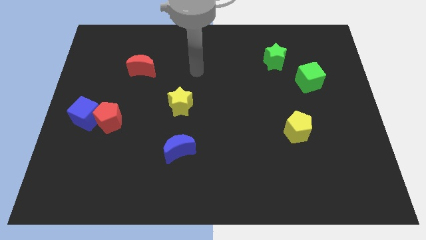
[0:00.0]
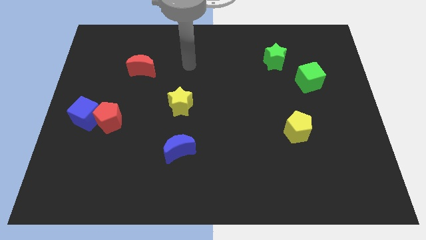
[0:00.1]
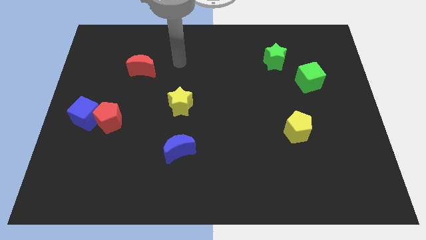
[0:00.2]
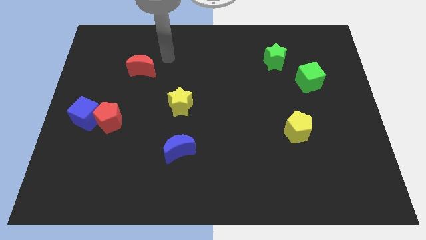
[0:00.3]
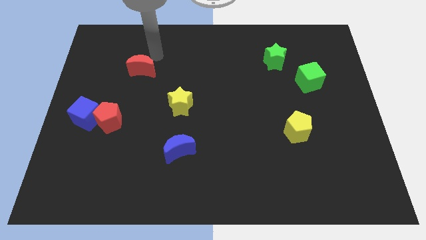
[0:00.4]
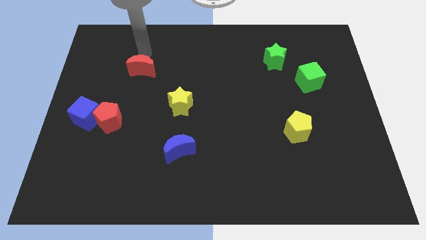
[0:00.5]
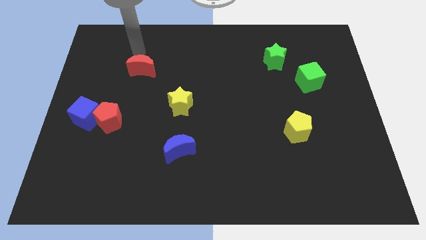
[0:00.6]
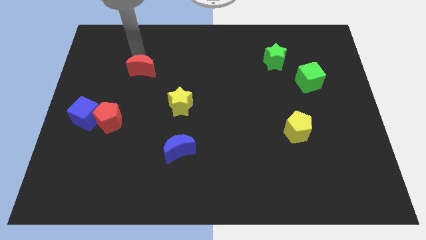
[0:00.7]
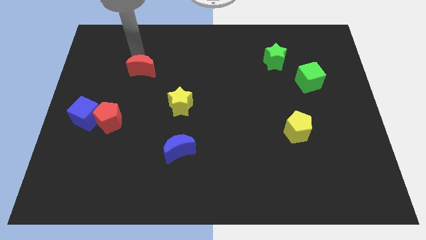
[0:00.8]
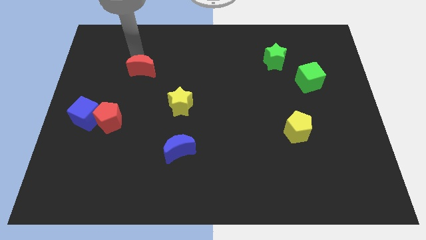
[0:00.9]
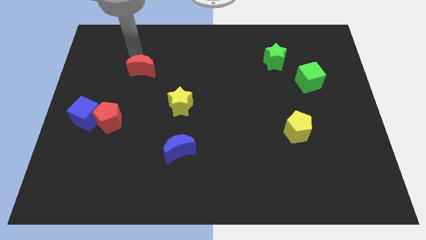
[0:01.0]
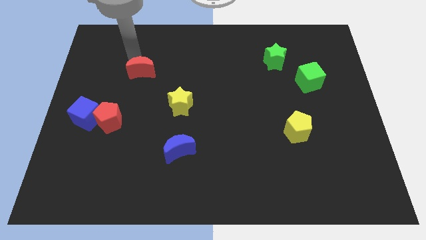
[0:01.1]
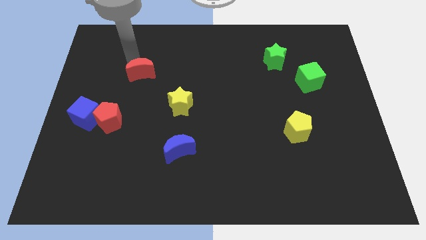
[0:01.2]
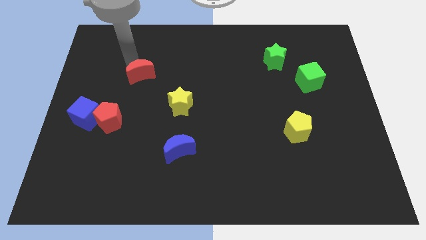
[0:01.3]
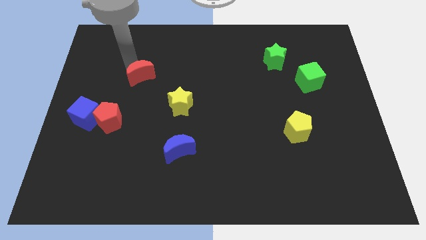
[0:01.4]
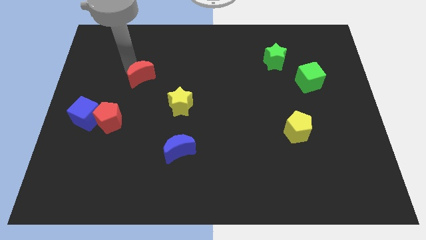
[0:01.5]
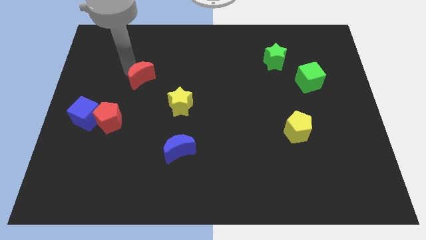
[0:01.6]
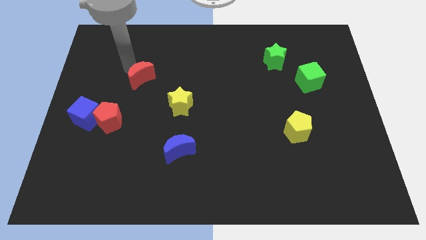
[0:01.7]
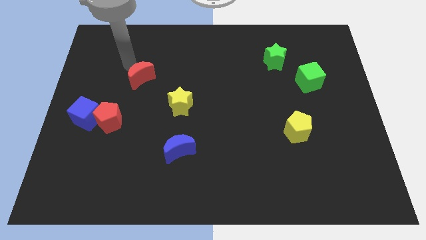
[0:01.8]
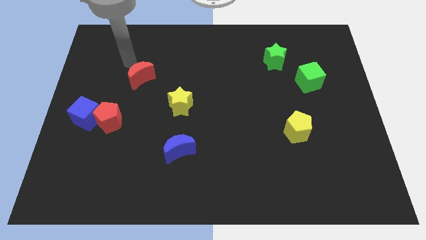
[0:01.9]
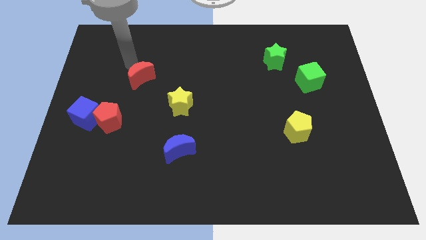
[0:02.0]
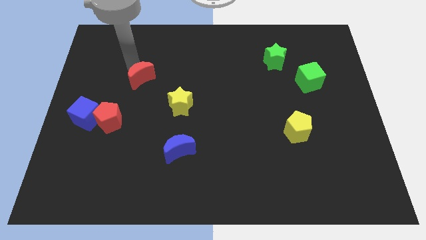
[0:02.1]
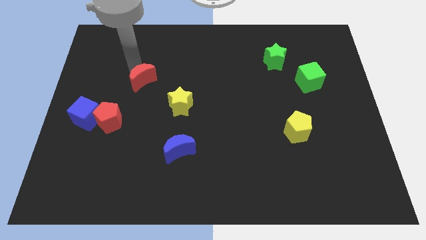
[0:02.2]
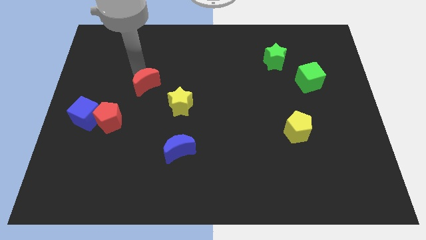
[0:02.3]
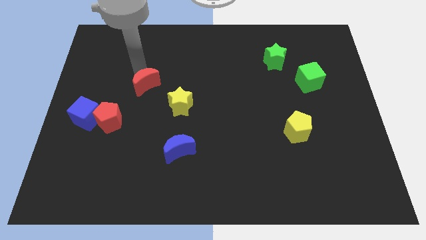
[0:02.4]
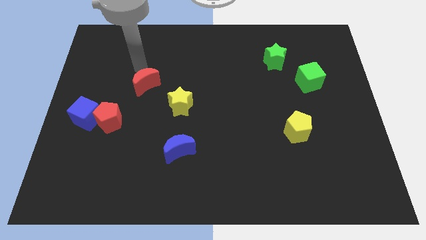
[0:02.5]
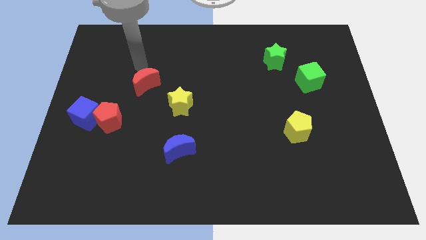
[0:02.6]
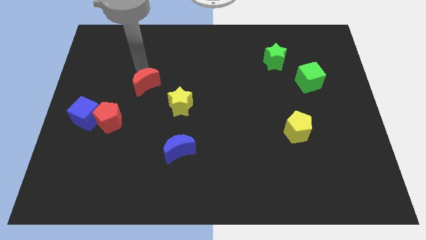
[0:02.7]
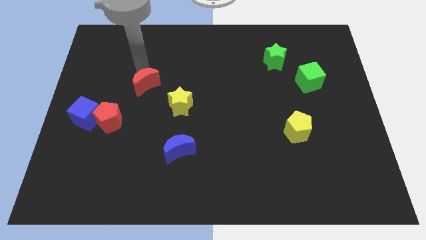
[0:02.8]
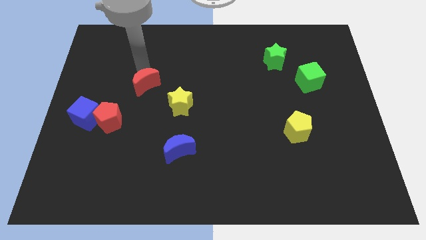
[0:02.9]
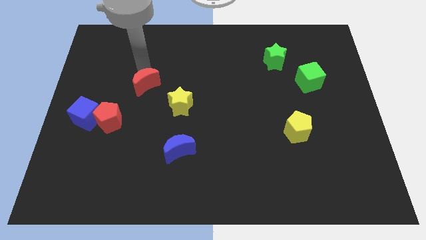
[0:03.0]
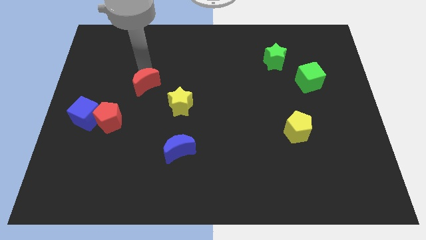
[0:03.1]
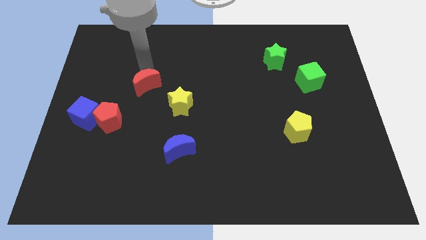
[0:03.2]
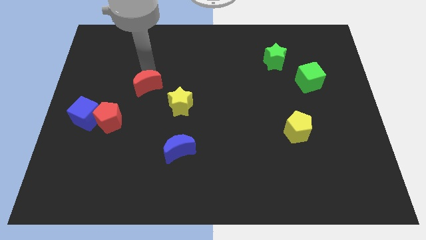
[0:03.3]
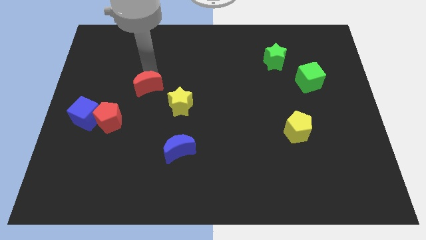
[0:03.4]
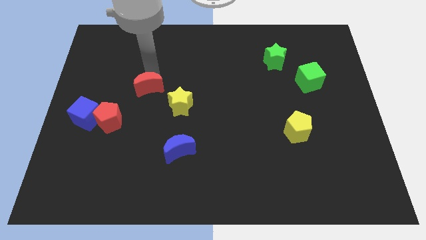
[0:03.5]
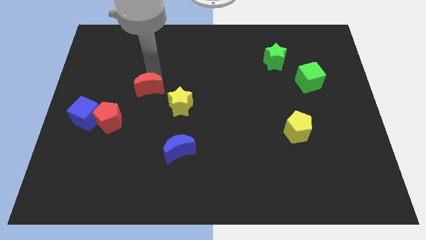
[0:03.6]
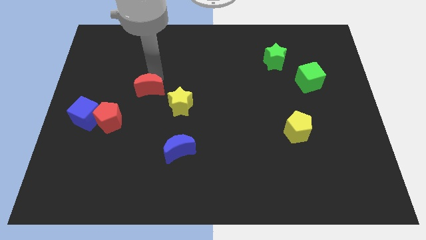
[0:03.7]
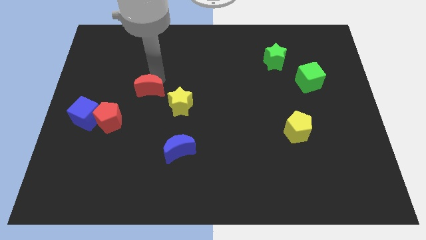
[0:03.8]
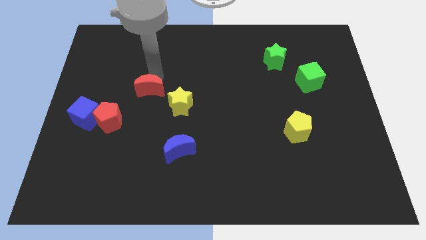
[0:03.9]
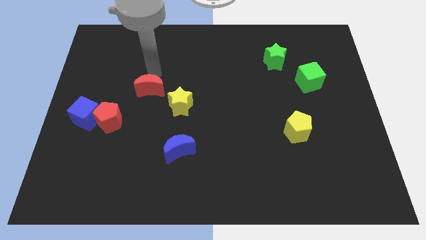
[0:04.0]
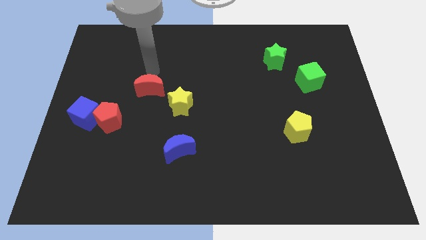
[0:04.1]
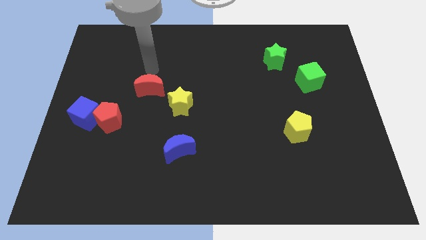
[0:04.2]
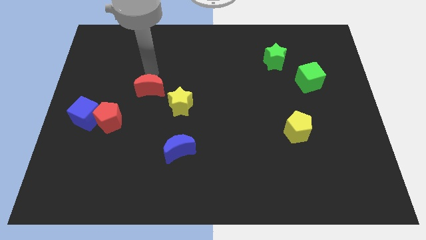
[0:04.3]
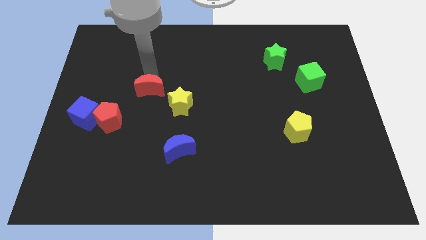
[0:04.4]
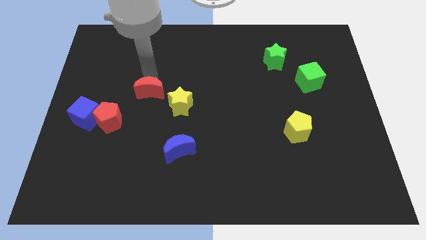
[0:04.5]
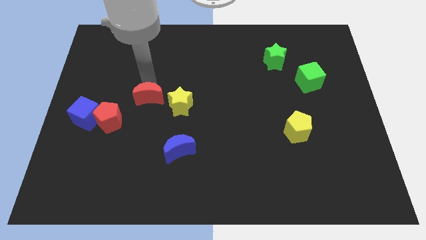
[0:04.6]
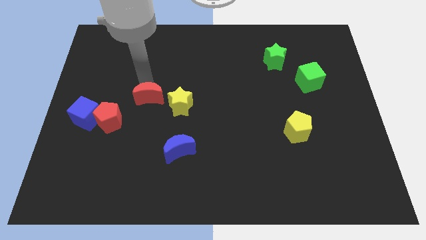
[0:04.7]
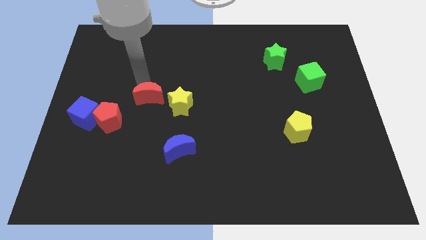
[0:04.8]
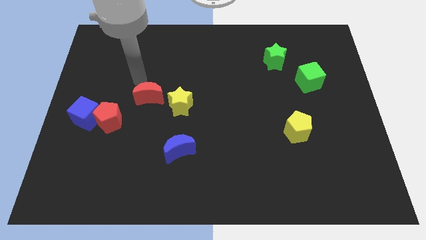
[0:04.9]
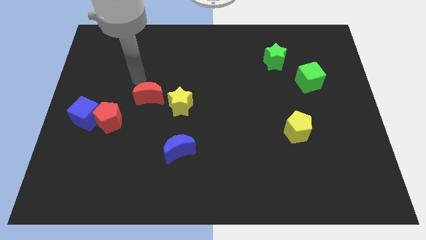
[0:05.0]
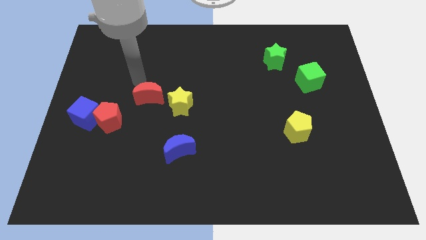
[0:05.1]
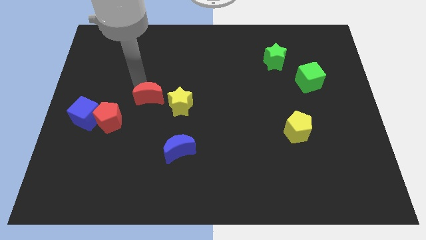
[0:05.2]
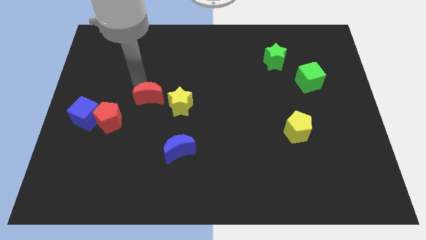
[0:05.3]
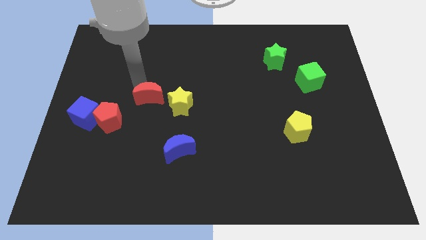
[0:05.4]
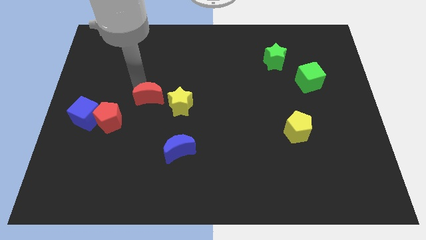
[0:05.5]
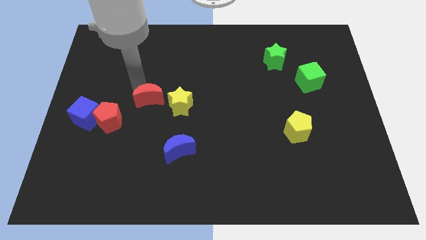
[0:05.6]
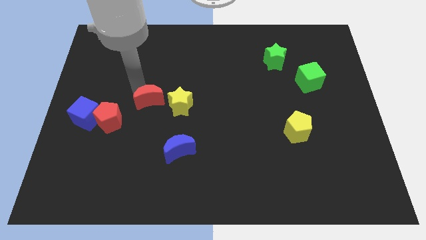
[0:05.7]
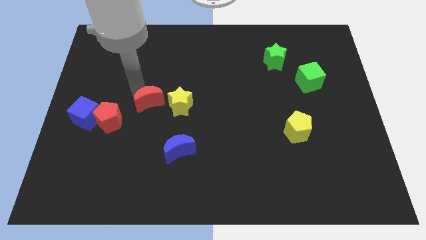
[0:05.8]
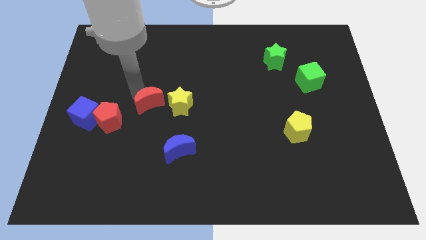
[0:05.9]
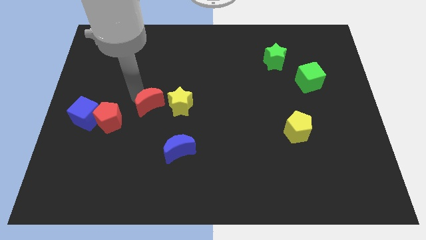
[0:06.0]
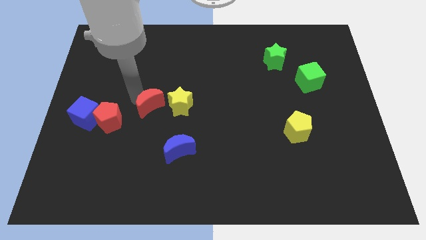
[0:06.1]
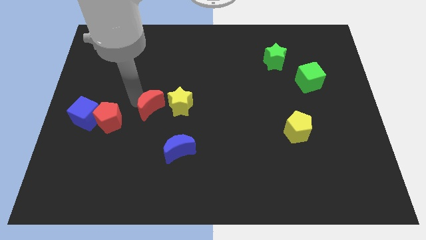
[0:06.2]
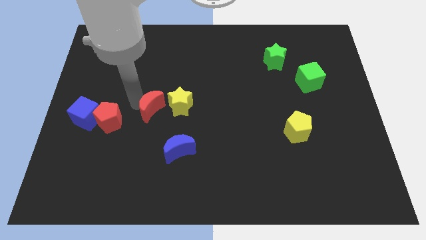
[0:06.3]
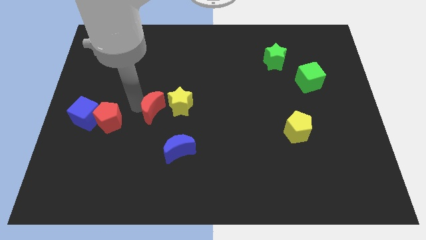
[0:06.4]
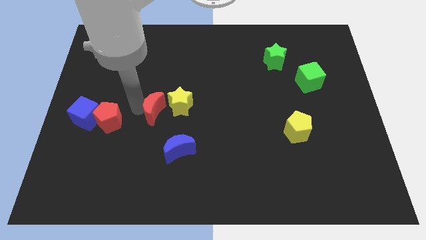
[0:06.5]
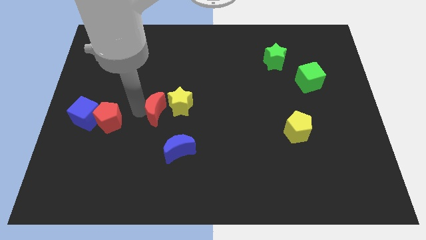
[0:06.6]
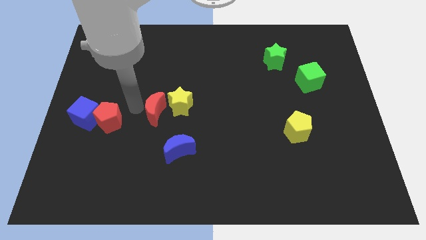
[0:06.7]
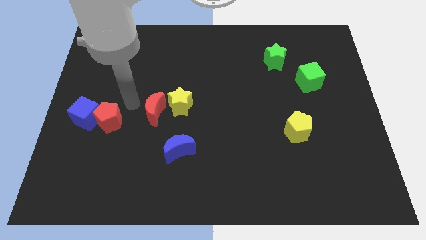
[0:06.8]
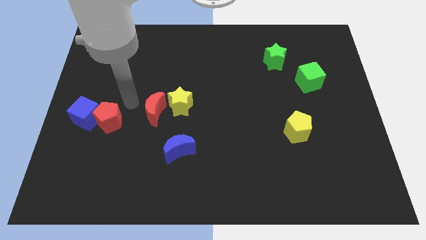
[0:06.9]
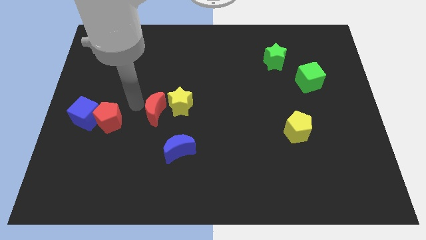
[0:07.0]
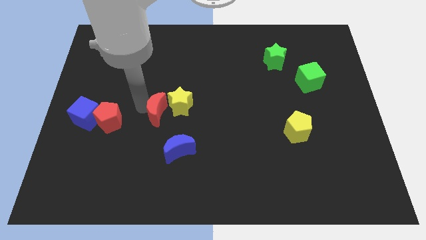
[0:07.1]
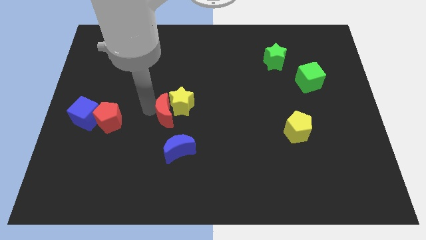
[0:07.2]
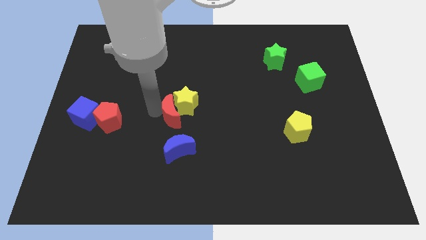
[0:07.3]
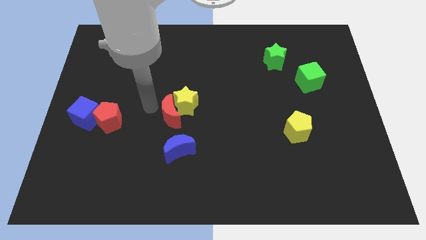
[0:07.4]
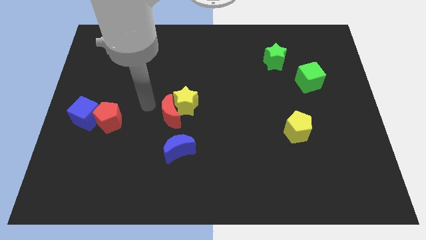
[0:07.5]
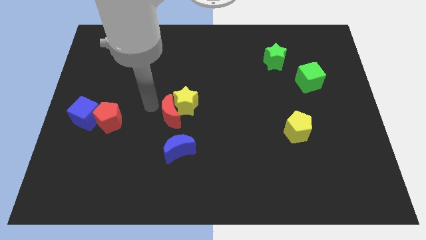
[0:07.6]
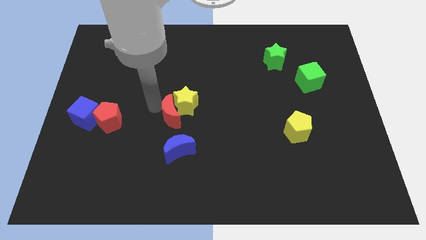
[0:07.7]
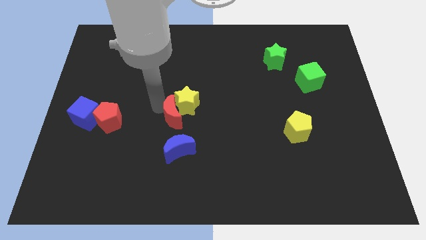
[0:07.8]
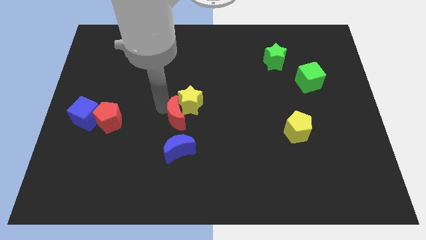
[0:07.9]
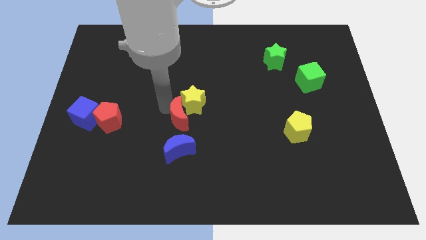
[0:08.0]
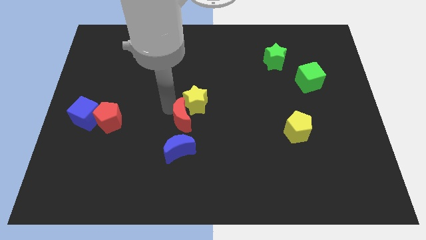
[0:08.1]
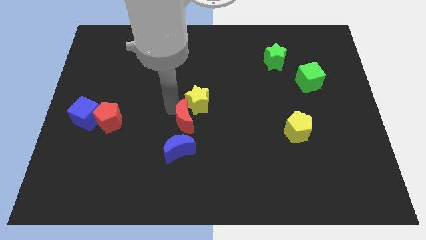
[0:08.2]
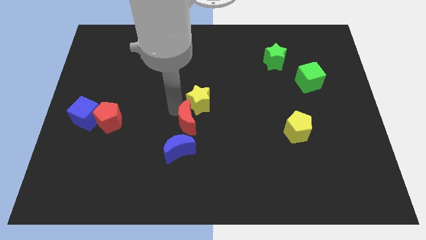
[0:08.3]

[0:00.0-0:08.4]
put the red moon to the top right of the blue moon
